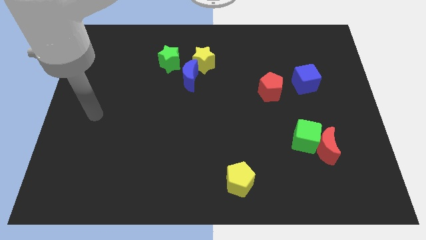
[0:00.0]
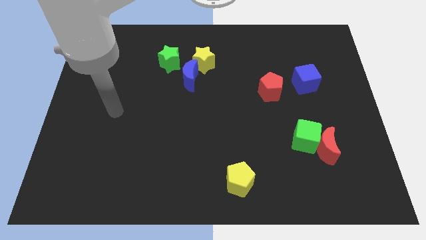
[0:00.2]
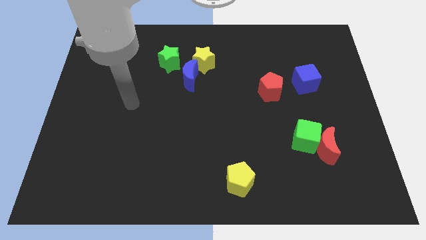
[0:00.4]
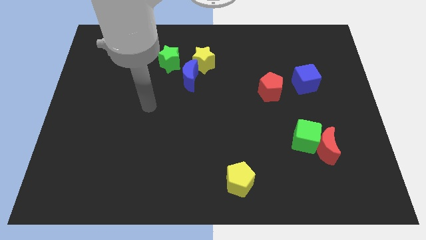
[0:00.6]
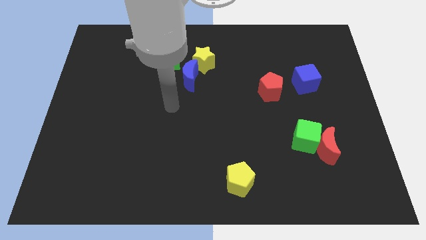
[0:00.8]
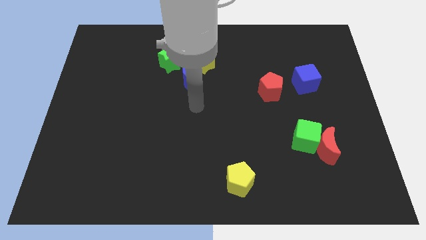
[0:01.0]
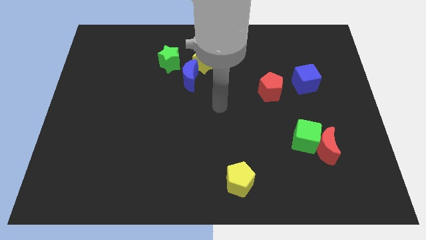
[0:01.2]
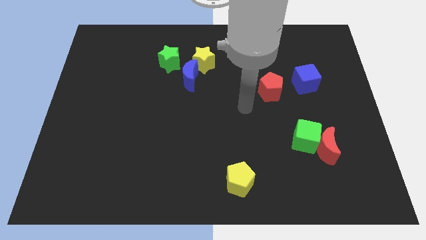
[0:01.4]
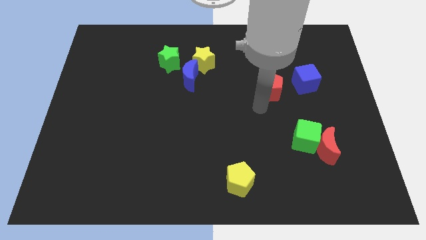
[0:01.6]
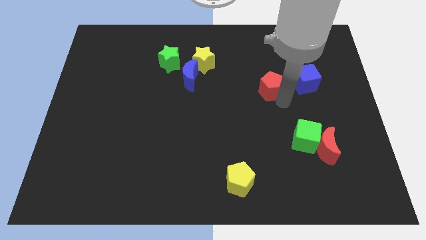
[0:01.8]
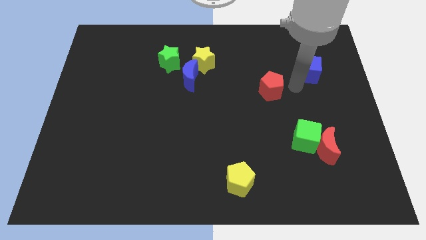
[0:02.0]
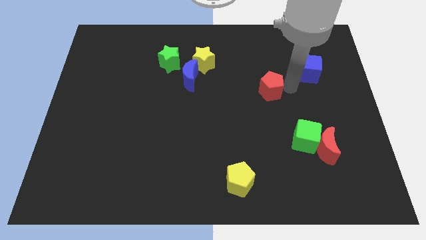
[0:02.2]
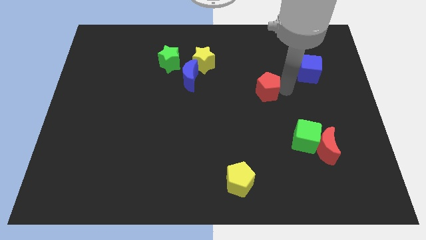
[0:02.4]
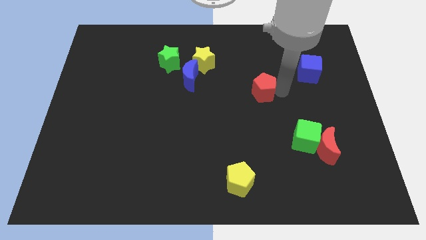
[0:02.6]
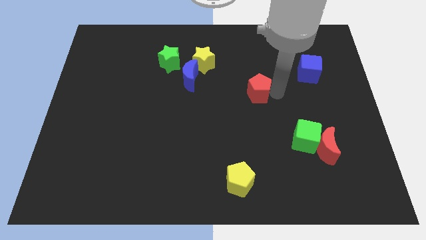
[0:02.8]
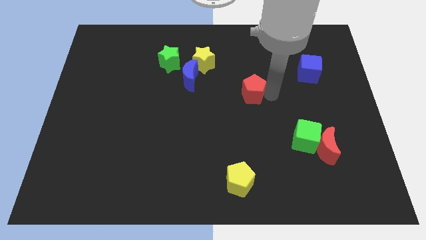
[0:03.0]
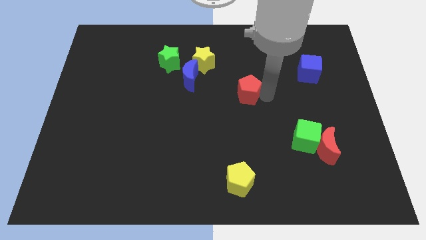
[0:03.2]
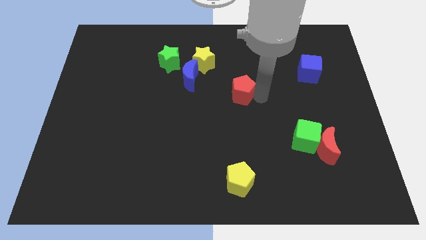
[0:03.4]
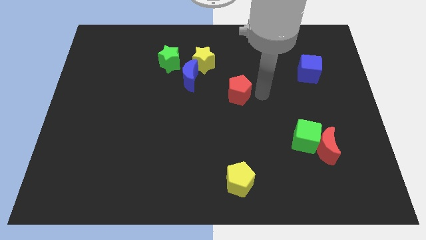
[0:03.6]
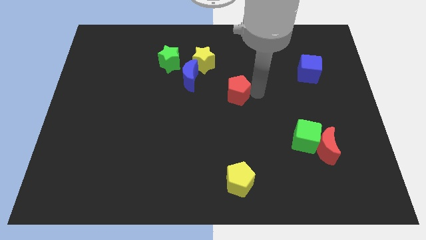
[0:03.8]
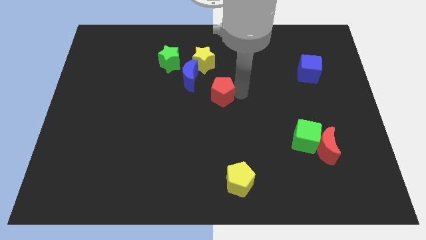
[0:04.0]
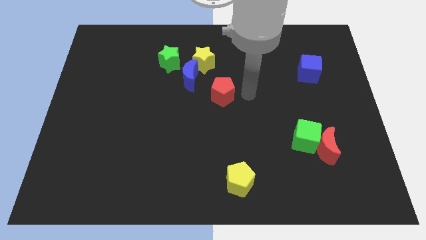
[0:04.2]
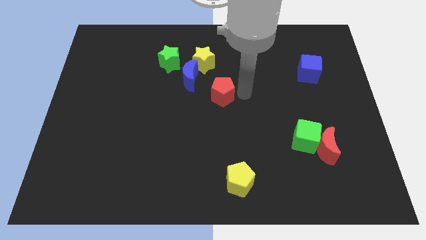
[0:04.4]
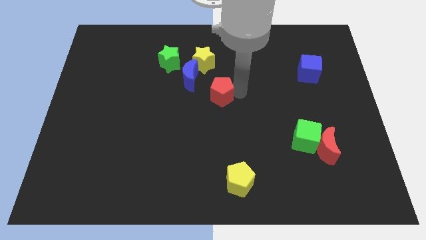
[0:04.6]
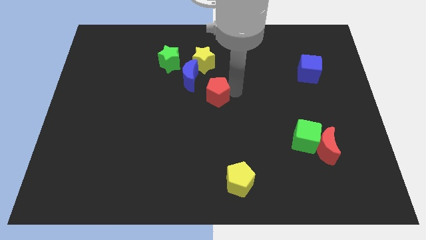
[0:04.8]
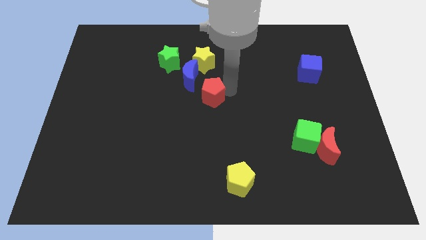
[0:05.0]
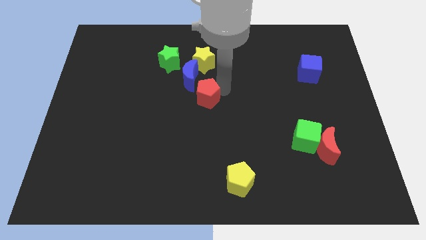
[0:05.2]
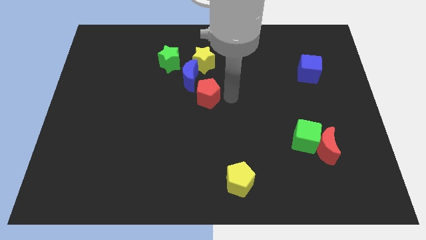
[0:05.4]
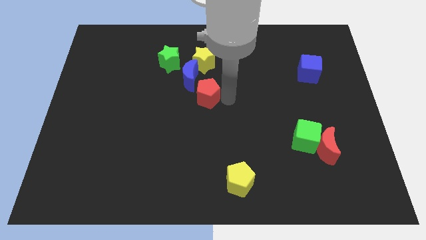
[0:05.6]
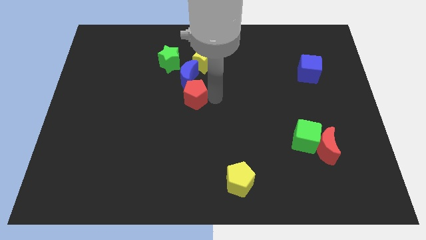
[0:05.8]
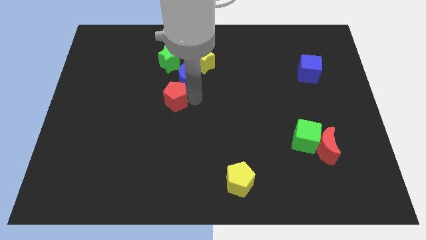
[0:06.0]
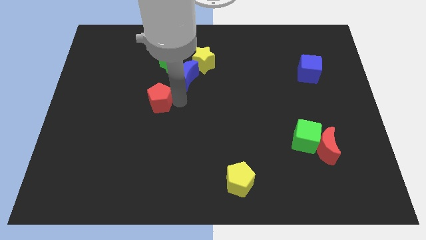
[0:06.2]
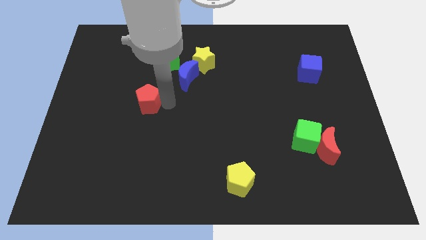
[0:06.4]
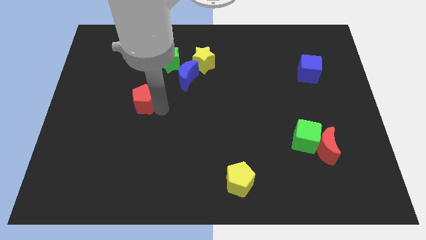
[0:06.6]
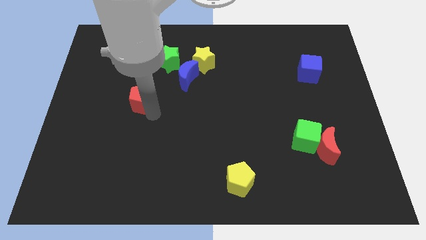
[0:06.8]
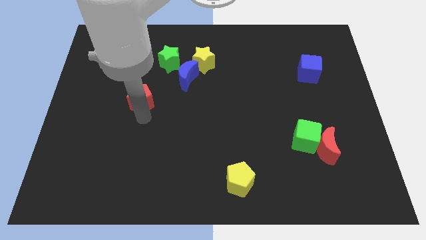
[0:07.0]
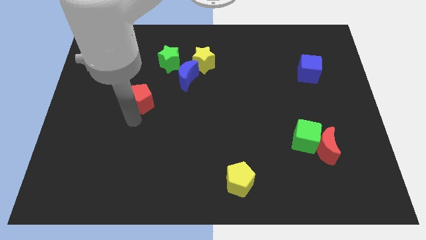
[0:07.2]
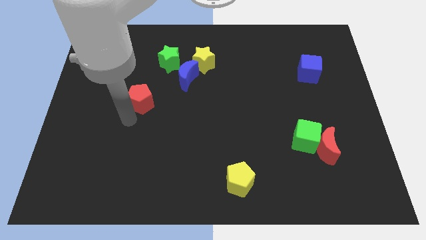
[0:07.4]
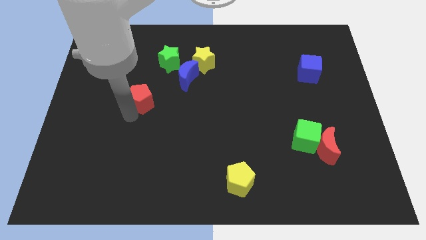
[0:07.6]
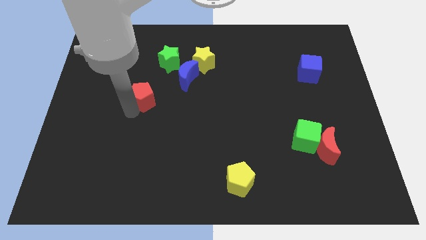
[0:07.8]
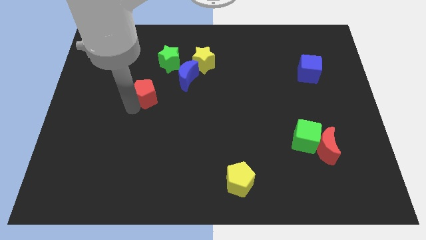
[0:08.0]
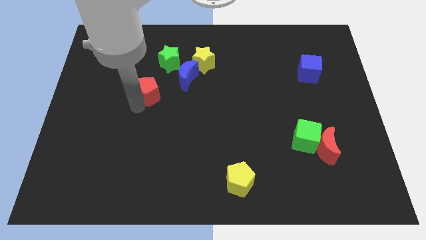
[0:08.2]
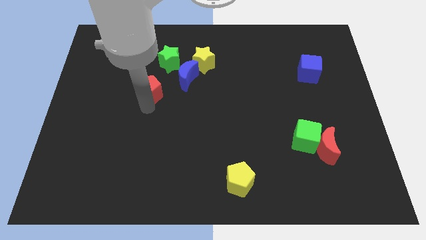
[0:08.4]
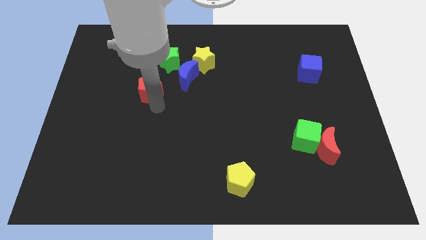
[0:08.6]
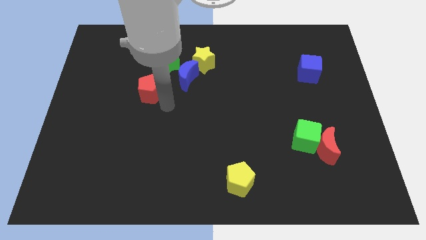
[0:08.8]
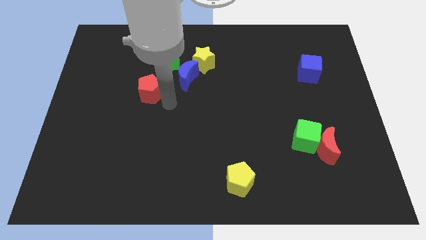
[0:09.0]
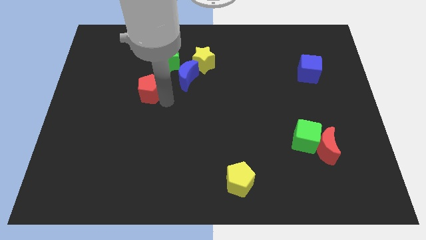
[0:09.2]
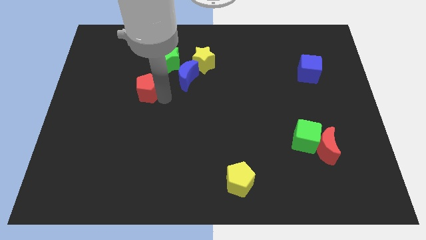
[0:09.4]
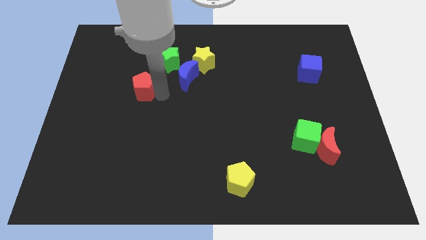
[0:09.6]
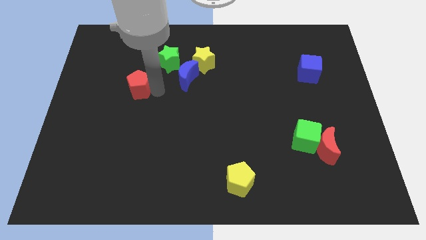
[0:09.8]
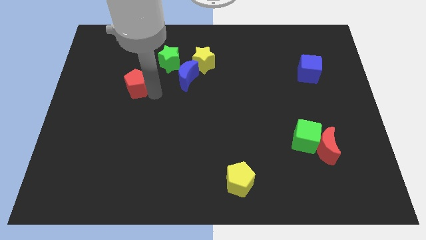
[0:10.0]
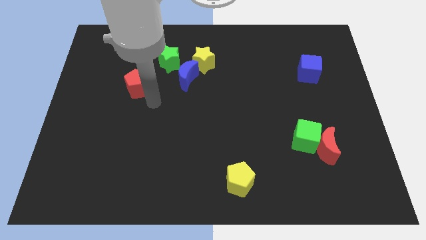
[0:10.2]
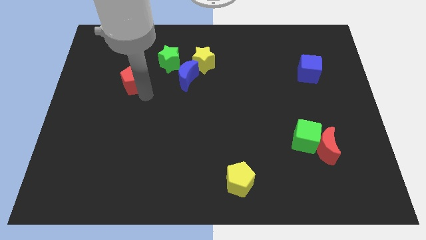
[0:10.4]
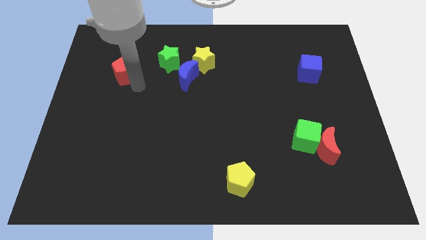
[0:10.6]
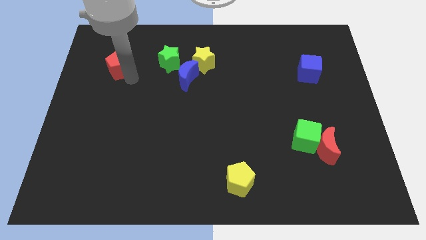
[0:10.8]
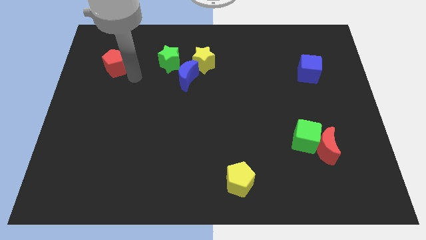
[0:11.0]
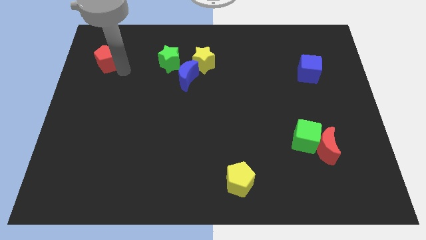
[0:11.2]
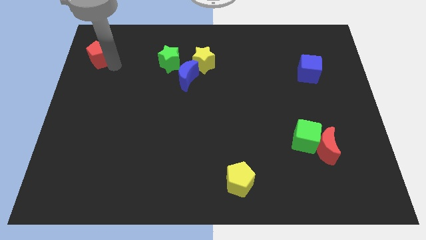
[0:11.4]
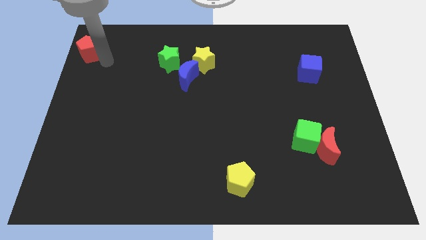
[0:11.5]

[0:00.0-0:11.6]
put the red pentagon to the top left corner
